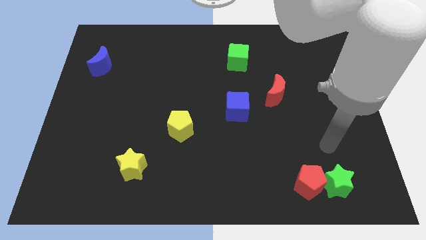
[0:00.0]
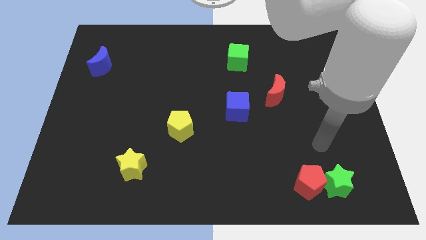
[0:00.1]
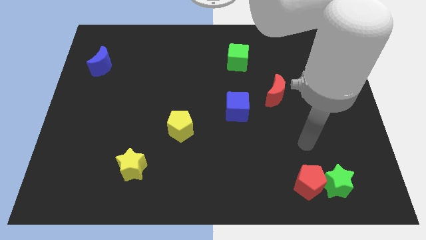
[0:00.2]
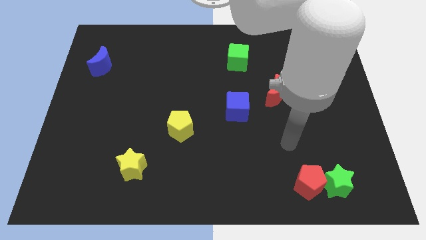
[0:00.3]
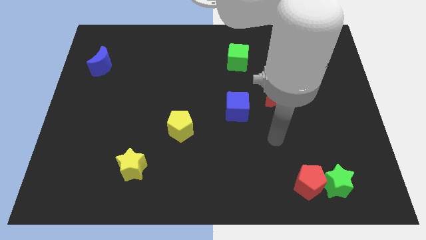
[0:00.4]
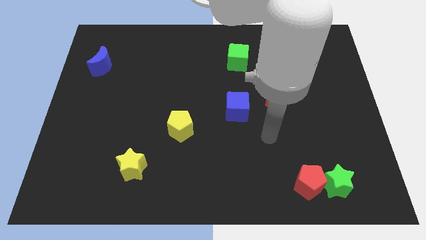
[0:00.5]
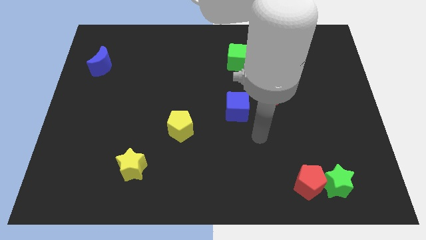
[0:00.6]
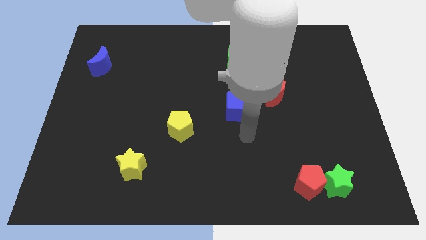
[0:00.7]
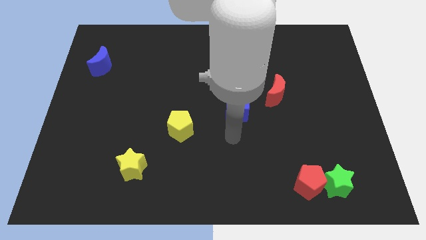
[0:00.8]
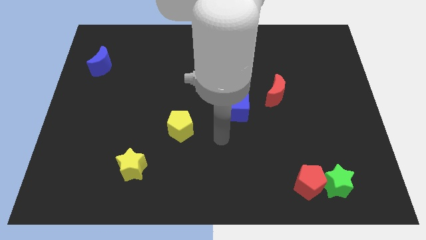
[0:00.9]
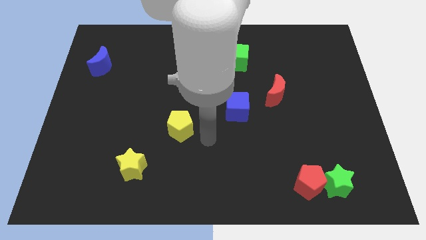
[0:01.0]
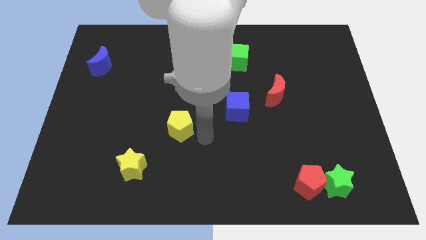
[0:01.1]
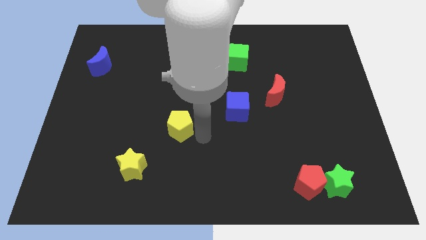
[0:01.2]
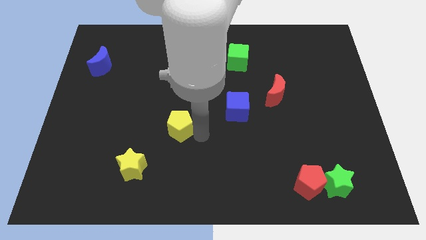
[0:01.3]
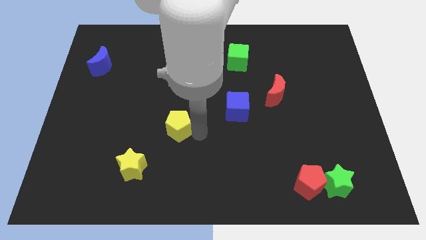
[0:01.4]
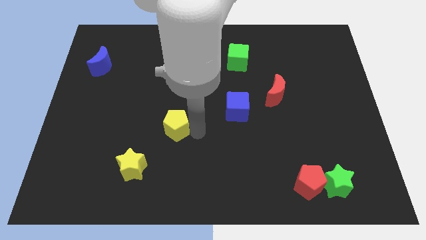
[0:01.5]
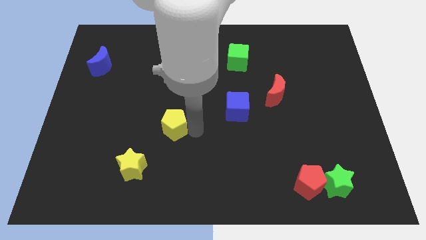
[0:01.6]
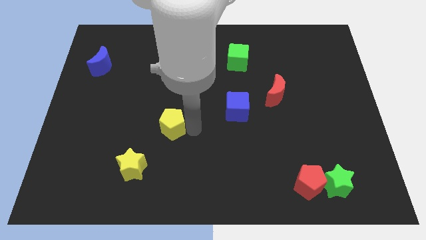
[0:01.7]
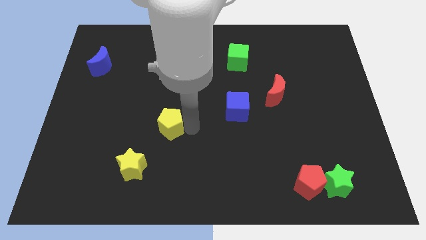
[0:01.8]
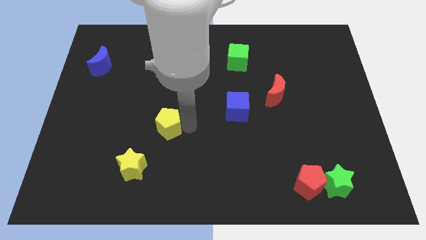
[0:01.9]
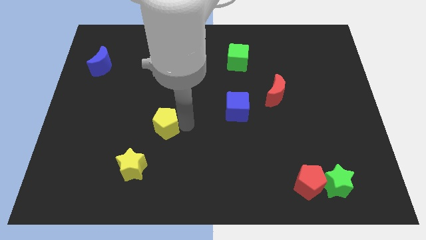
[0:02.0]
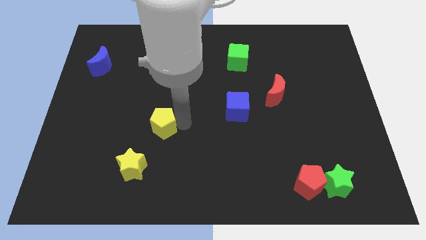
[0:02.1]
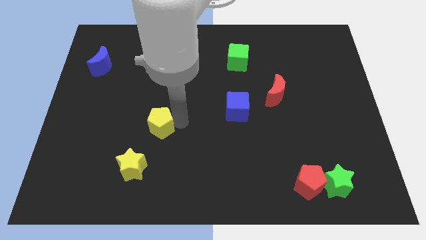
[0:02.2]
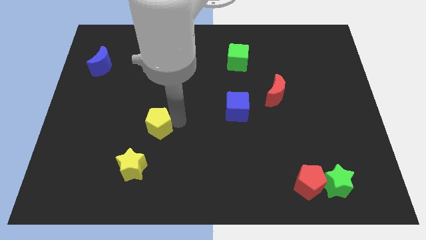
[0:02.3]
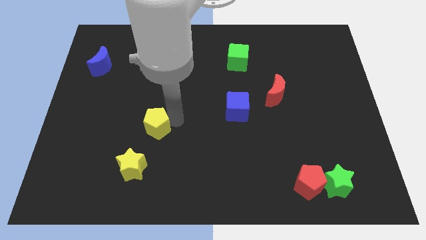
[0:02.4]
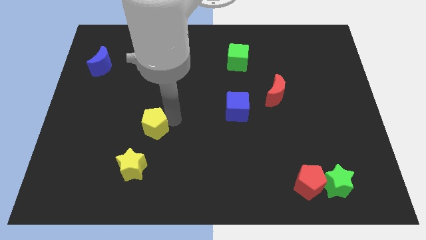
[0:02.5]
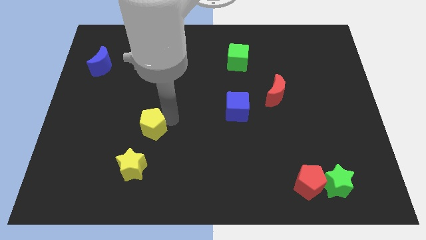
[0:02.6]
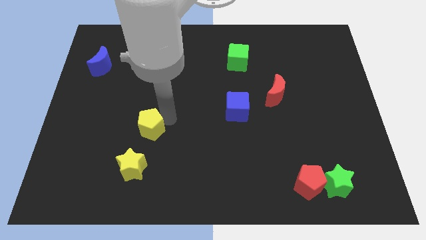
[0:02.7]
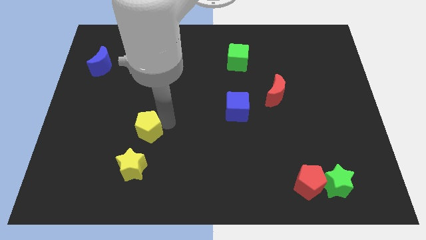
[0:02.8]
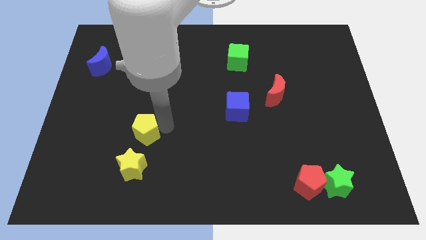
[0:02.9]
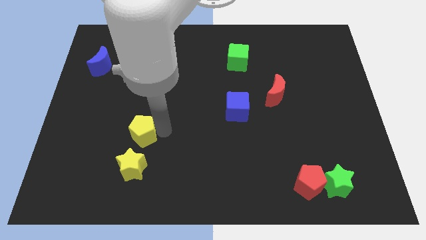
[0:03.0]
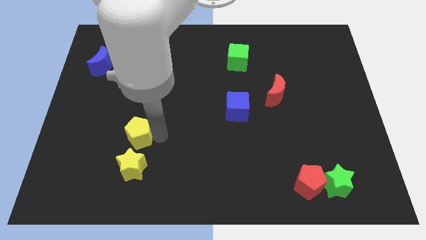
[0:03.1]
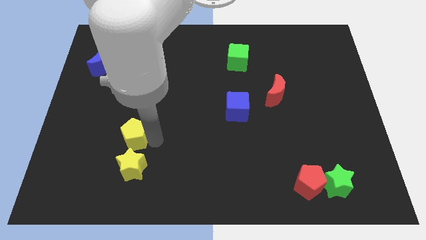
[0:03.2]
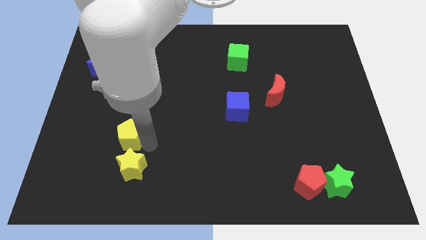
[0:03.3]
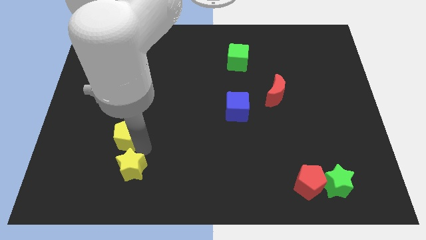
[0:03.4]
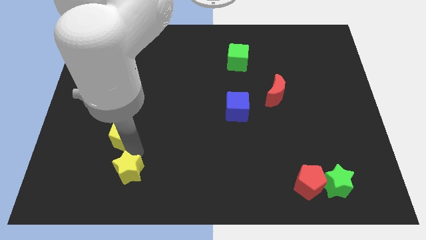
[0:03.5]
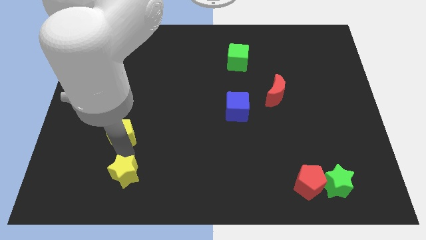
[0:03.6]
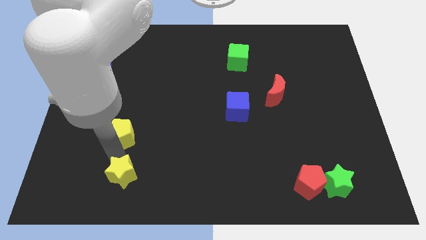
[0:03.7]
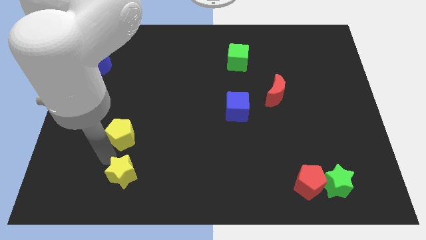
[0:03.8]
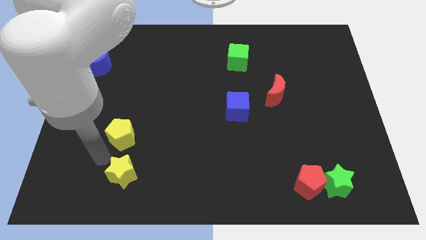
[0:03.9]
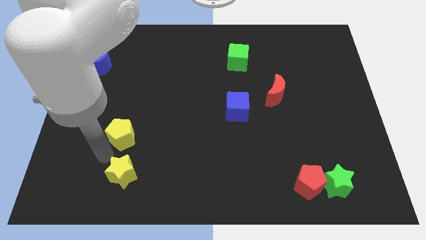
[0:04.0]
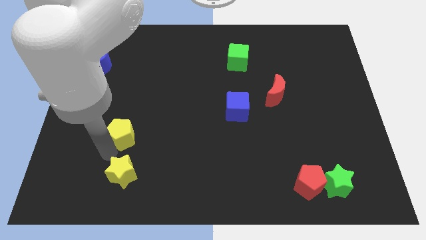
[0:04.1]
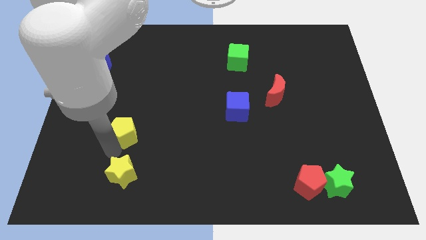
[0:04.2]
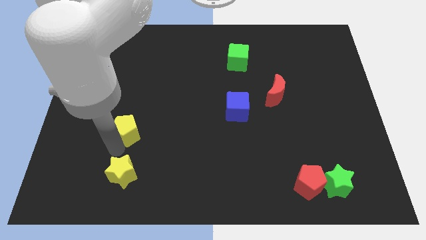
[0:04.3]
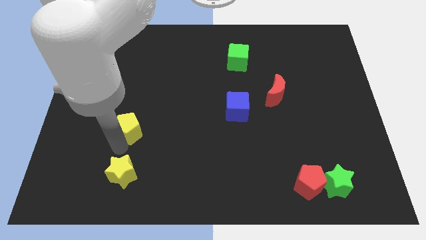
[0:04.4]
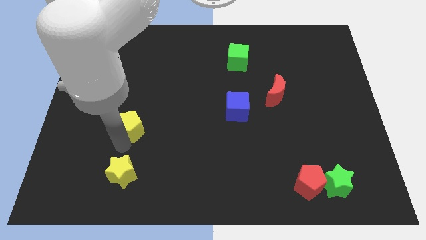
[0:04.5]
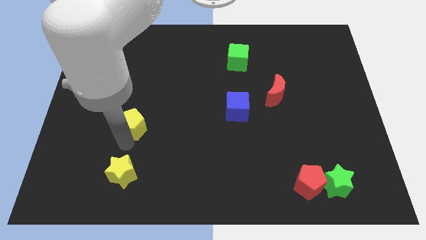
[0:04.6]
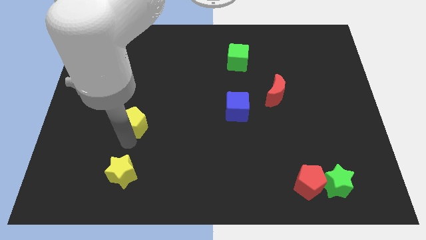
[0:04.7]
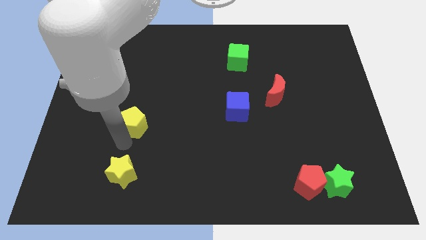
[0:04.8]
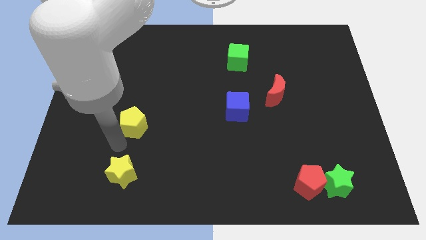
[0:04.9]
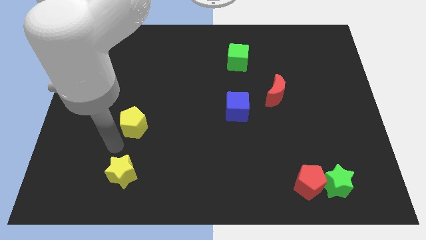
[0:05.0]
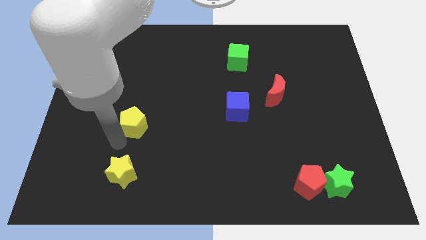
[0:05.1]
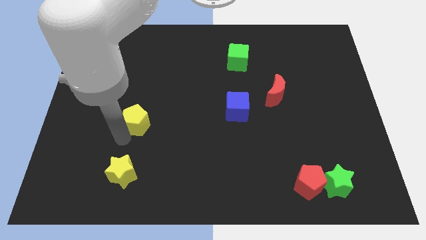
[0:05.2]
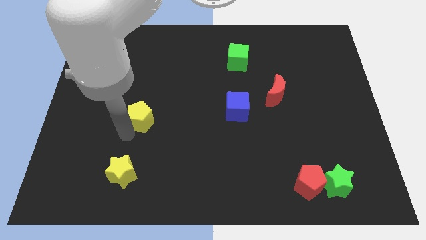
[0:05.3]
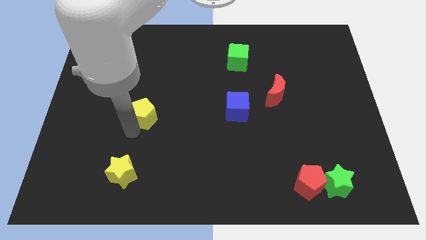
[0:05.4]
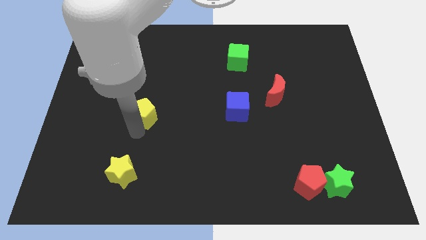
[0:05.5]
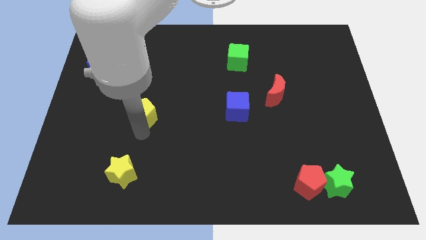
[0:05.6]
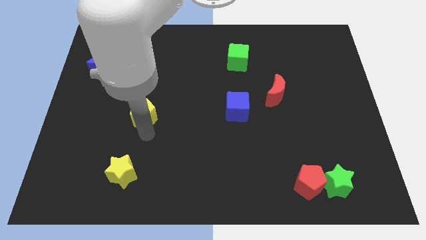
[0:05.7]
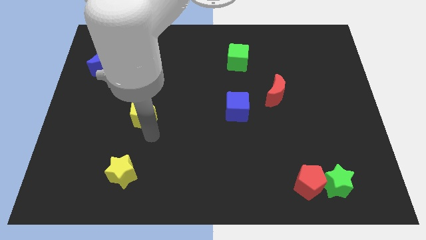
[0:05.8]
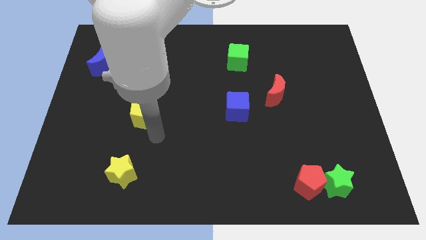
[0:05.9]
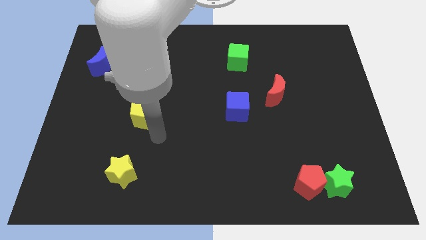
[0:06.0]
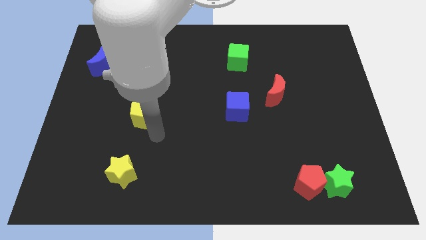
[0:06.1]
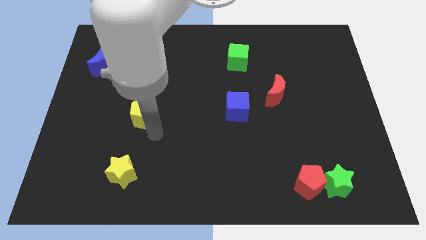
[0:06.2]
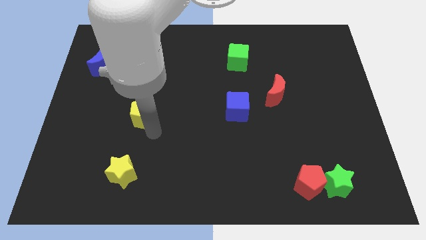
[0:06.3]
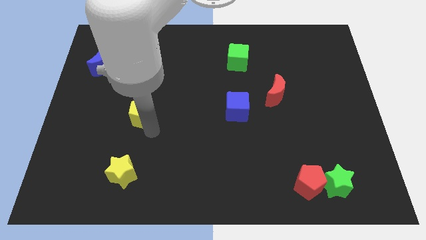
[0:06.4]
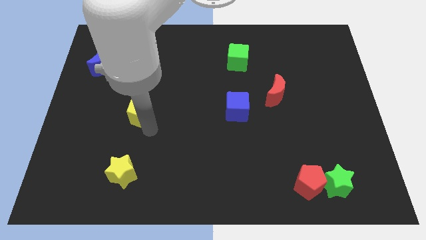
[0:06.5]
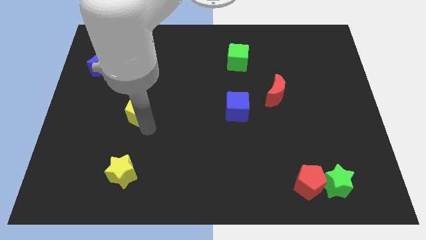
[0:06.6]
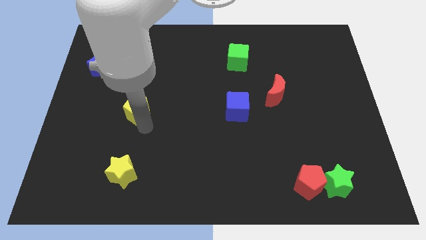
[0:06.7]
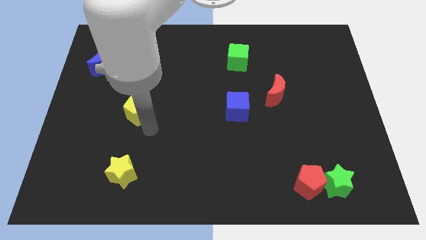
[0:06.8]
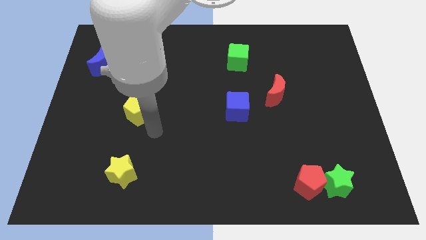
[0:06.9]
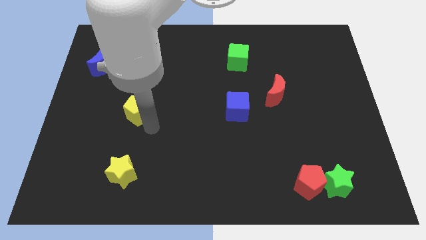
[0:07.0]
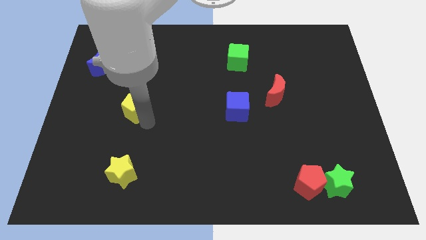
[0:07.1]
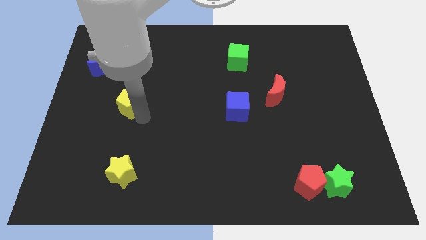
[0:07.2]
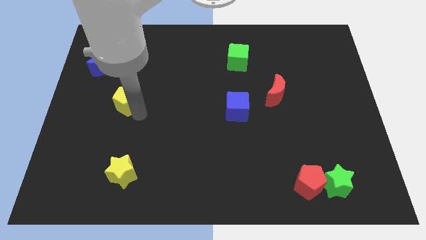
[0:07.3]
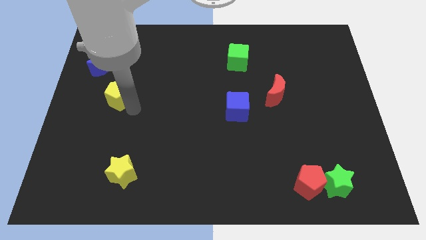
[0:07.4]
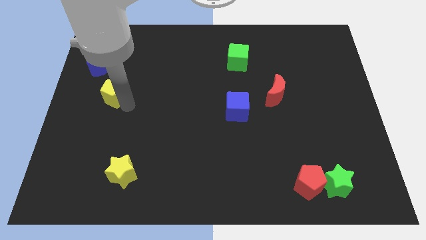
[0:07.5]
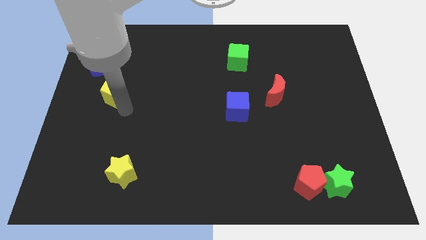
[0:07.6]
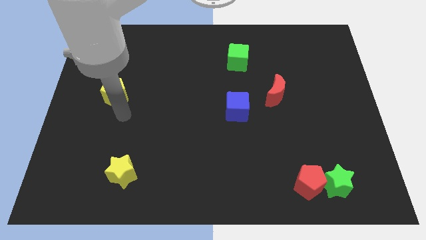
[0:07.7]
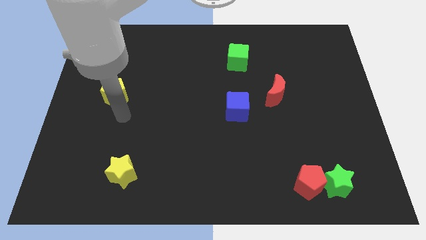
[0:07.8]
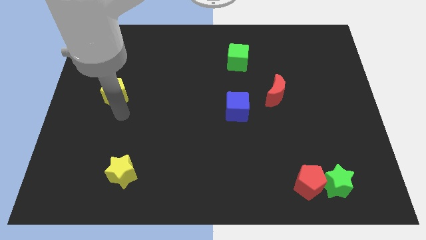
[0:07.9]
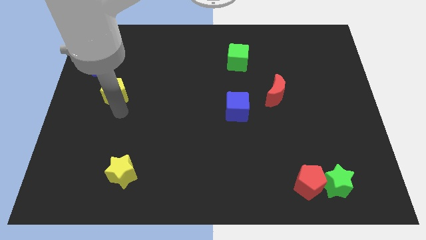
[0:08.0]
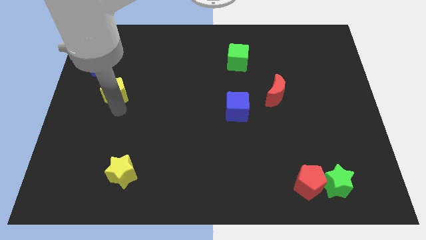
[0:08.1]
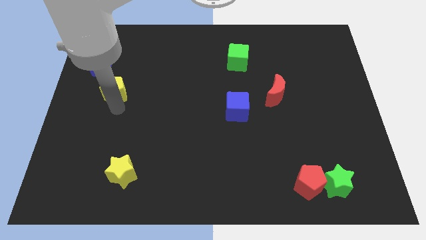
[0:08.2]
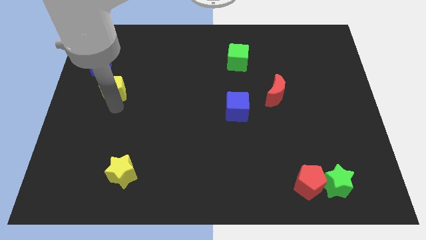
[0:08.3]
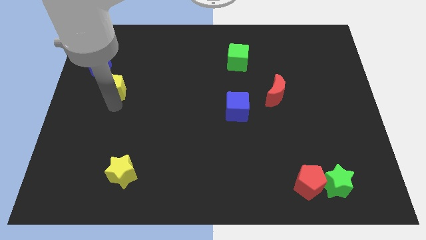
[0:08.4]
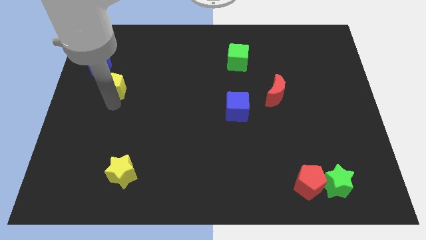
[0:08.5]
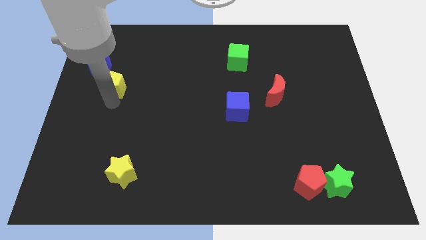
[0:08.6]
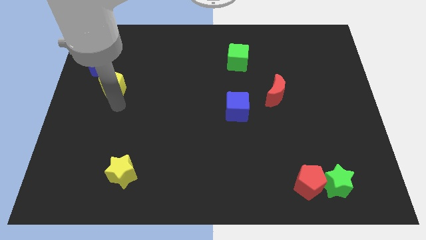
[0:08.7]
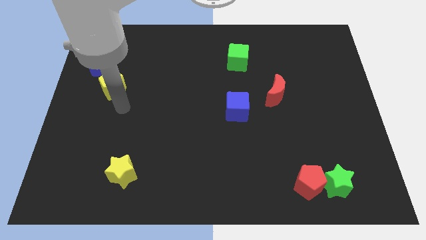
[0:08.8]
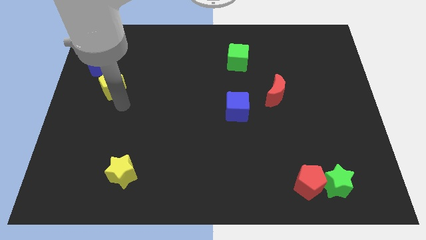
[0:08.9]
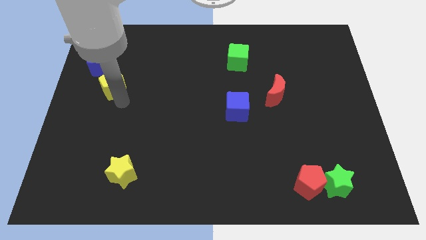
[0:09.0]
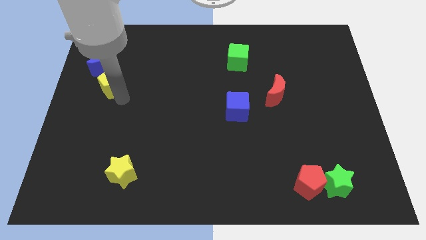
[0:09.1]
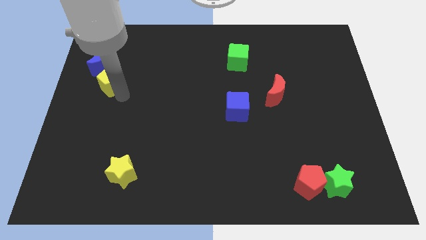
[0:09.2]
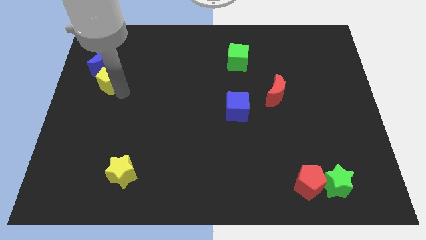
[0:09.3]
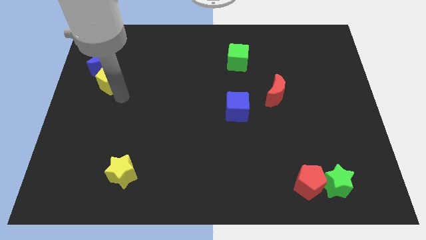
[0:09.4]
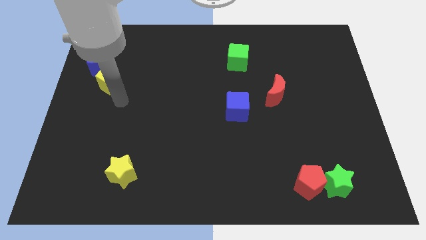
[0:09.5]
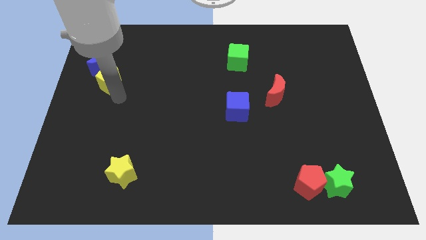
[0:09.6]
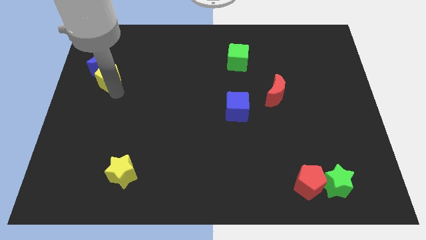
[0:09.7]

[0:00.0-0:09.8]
put the yellow pentagon towards the blue moon
